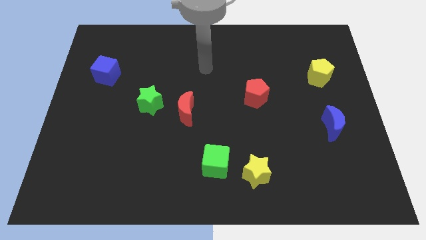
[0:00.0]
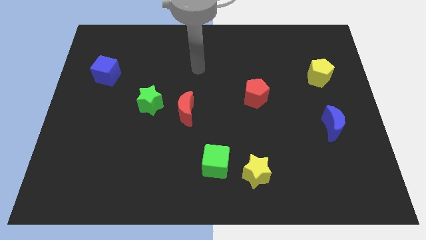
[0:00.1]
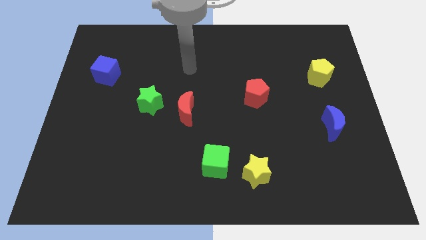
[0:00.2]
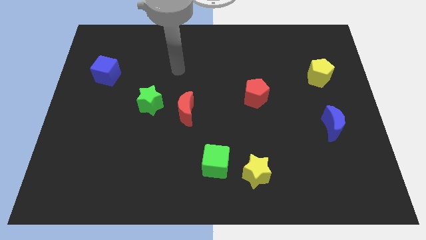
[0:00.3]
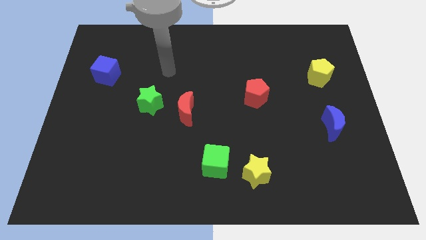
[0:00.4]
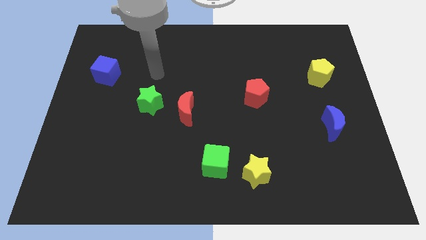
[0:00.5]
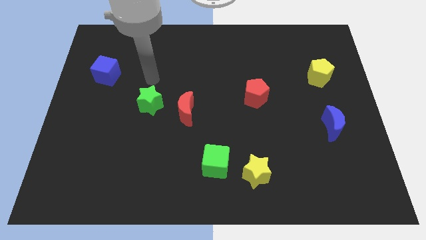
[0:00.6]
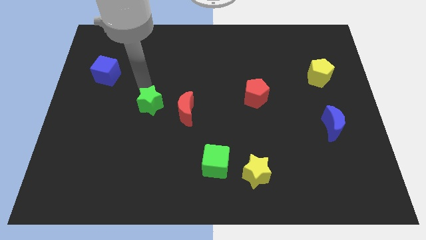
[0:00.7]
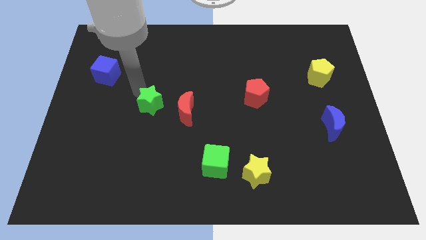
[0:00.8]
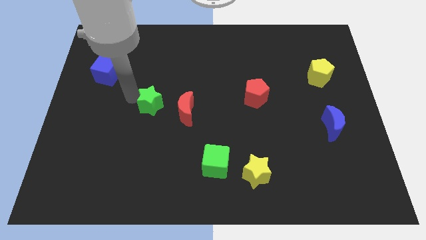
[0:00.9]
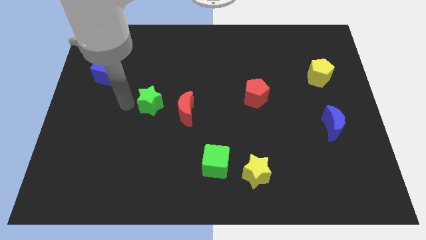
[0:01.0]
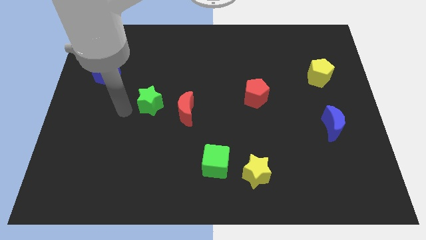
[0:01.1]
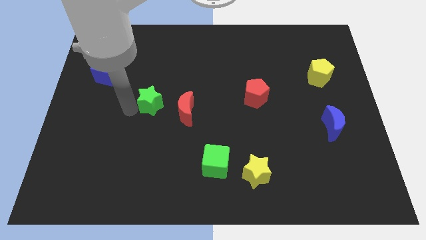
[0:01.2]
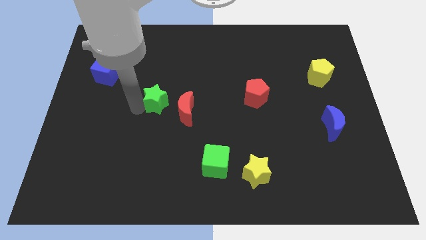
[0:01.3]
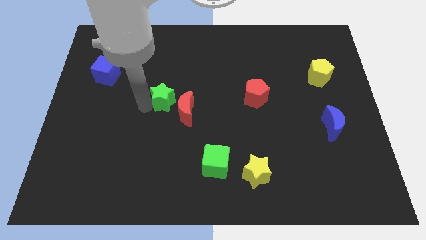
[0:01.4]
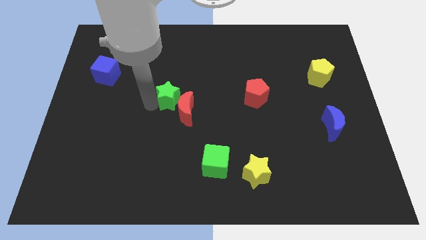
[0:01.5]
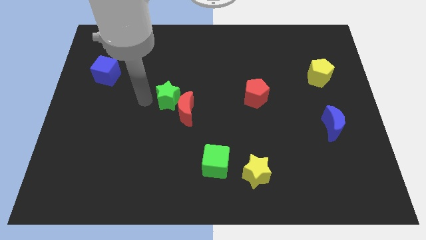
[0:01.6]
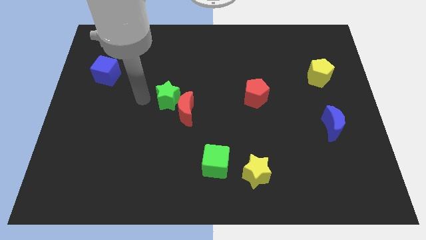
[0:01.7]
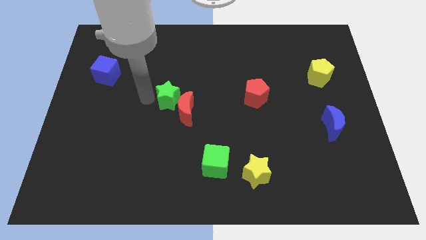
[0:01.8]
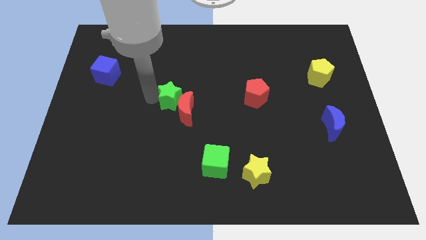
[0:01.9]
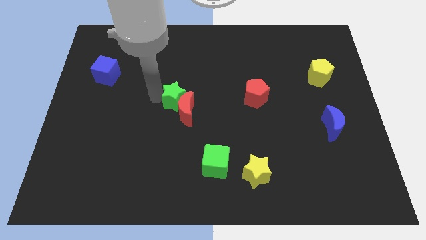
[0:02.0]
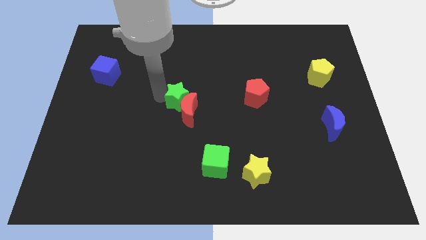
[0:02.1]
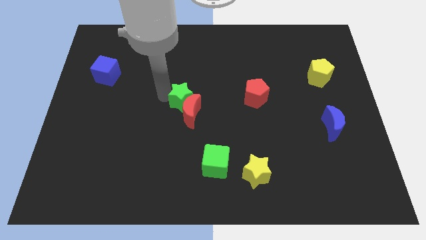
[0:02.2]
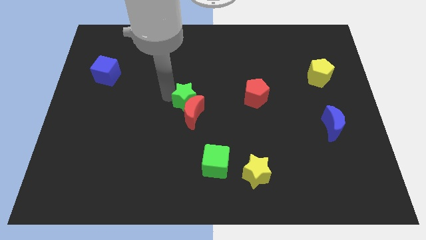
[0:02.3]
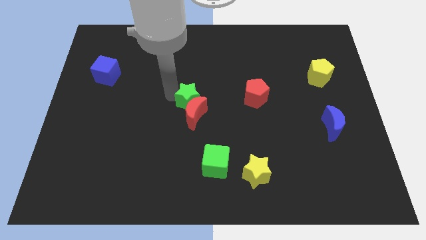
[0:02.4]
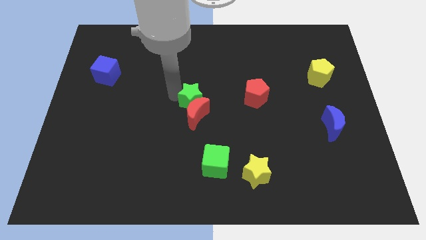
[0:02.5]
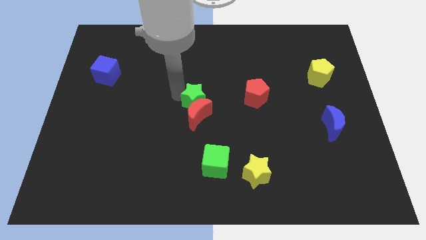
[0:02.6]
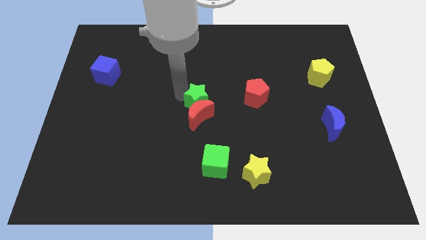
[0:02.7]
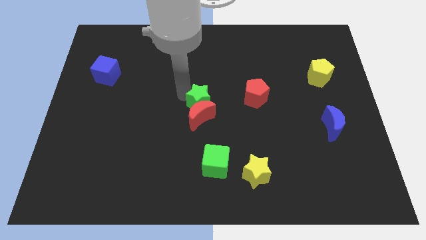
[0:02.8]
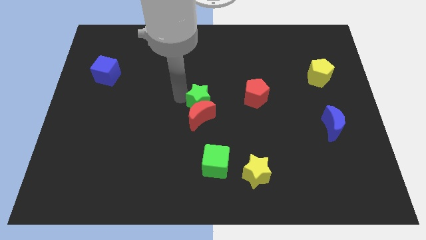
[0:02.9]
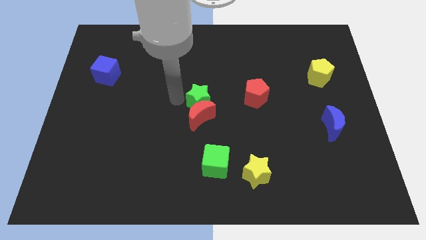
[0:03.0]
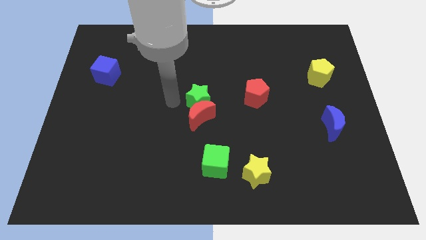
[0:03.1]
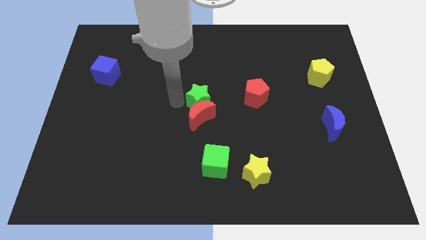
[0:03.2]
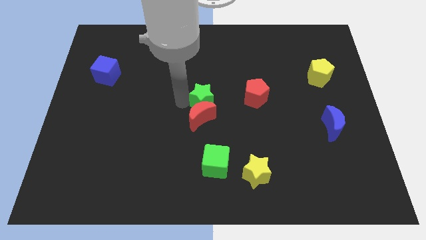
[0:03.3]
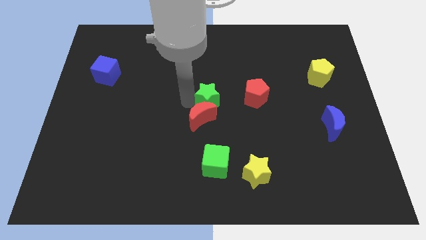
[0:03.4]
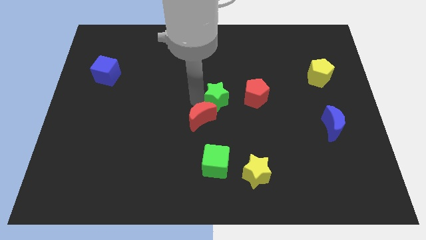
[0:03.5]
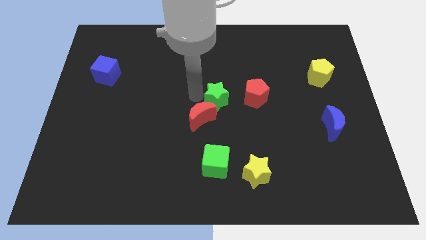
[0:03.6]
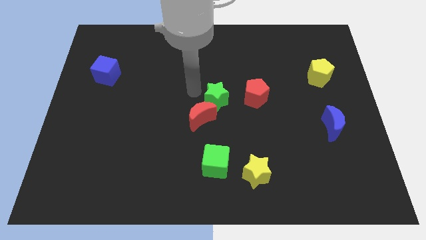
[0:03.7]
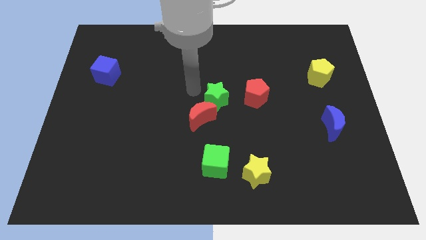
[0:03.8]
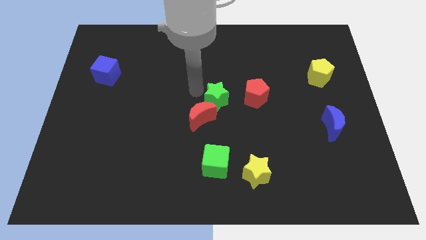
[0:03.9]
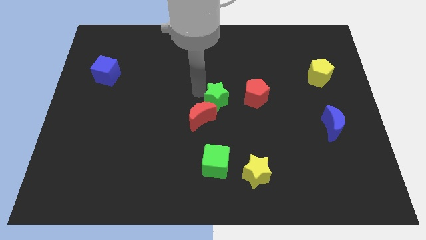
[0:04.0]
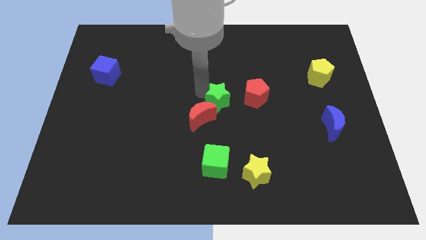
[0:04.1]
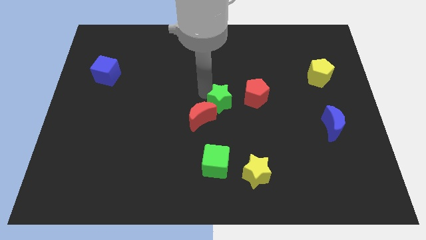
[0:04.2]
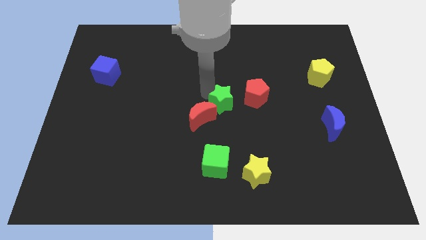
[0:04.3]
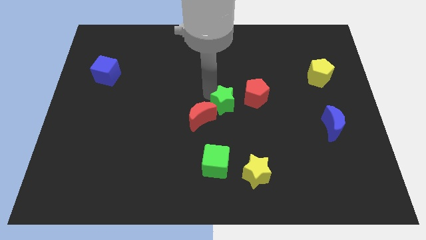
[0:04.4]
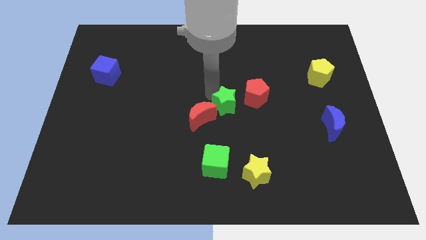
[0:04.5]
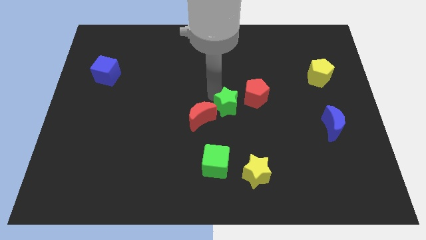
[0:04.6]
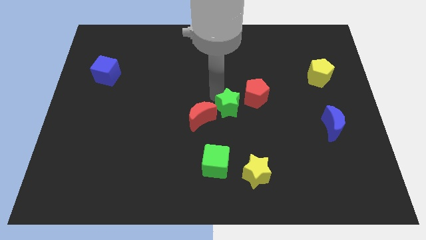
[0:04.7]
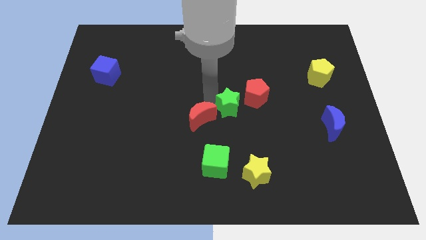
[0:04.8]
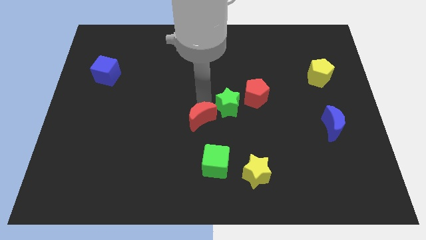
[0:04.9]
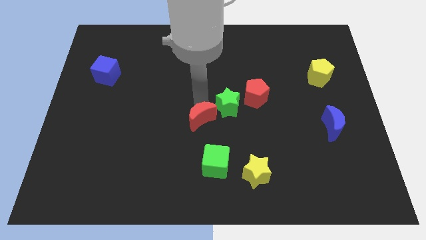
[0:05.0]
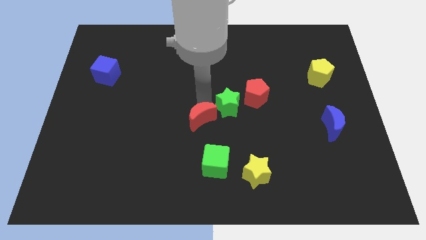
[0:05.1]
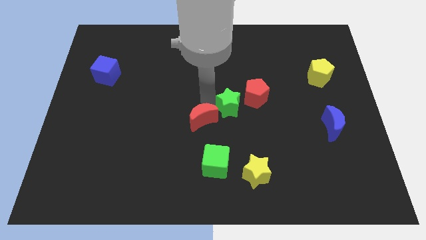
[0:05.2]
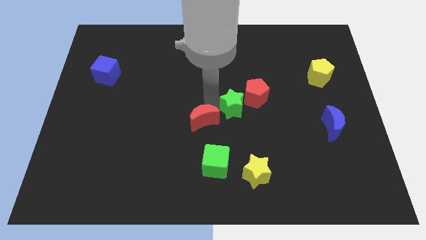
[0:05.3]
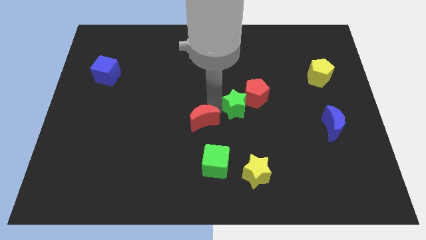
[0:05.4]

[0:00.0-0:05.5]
push the green star right

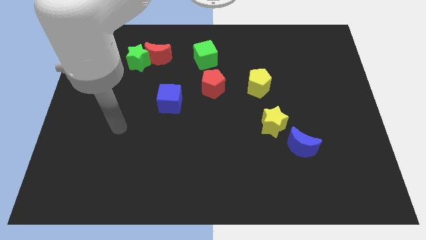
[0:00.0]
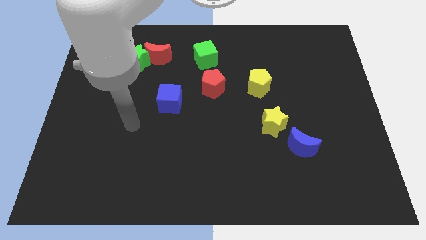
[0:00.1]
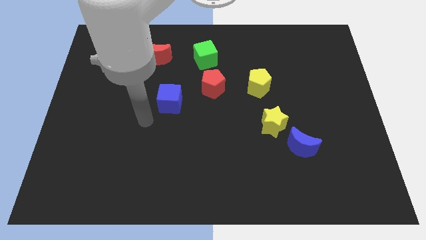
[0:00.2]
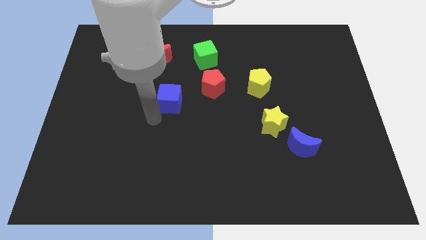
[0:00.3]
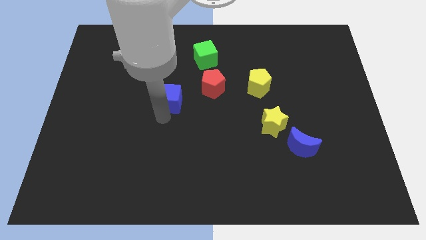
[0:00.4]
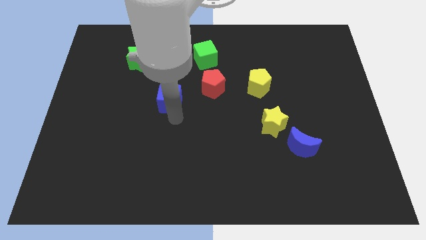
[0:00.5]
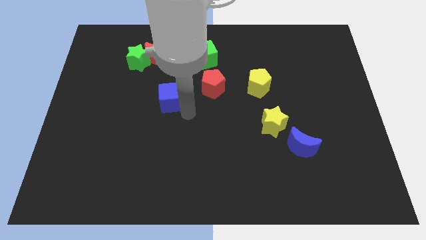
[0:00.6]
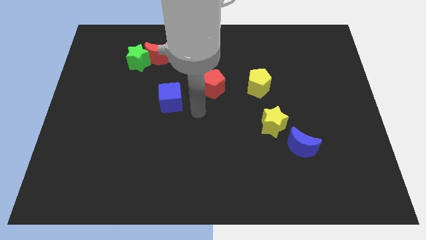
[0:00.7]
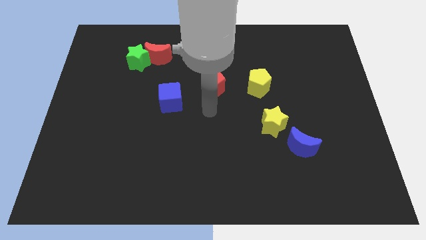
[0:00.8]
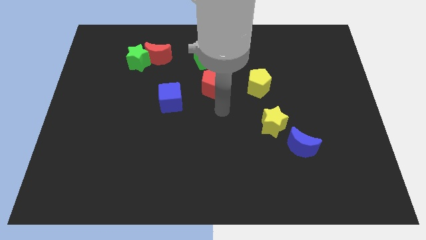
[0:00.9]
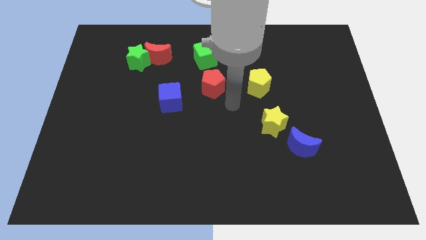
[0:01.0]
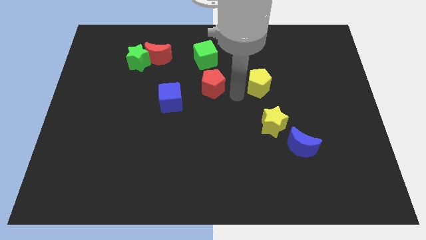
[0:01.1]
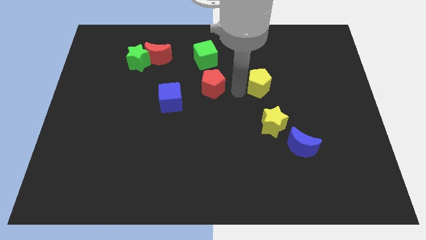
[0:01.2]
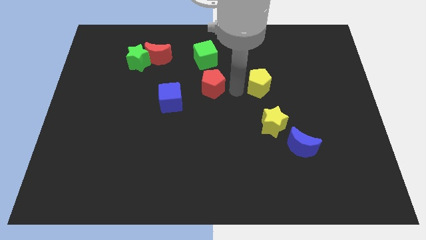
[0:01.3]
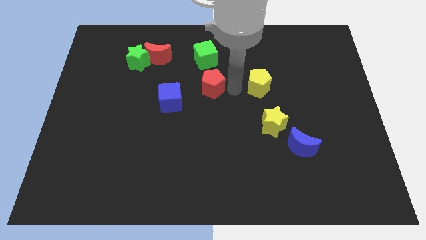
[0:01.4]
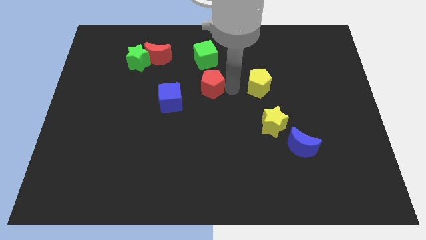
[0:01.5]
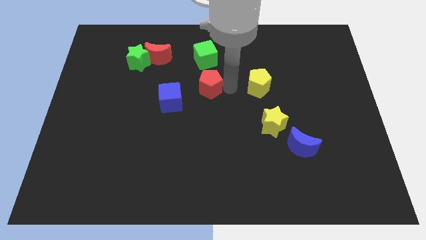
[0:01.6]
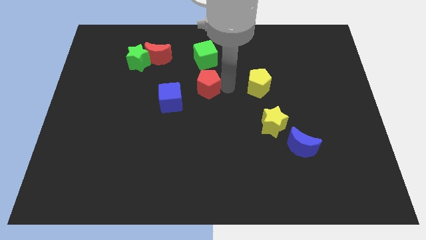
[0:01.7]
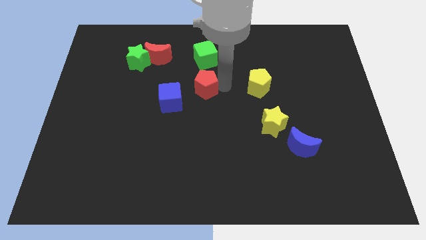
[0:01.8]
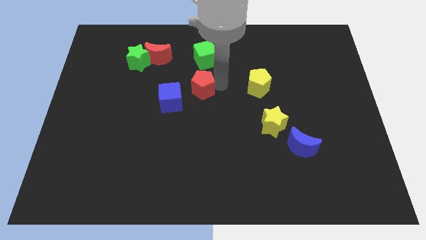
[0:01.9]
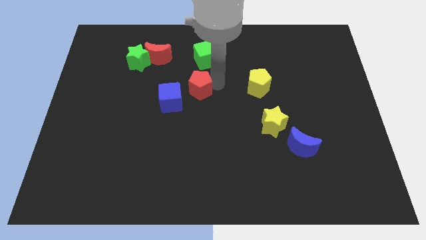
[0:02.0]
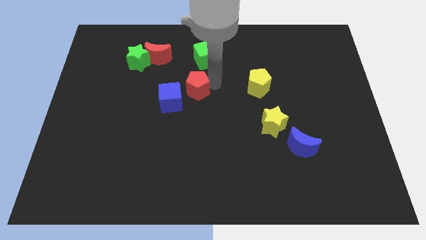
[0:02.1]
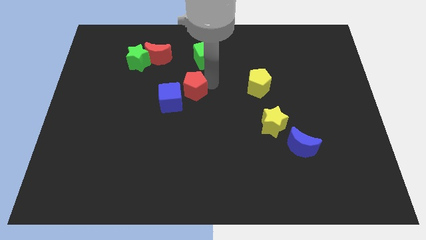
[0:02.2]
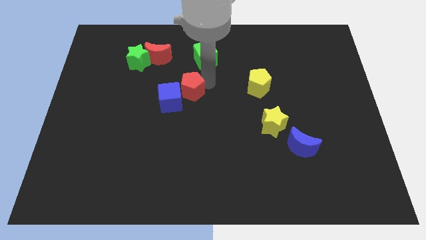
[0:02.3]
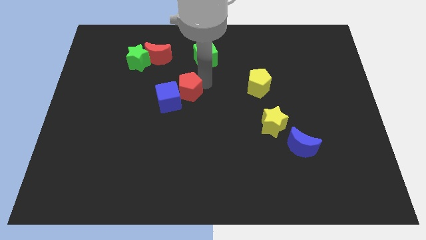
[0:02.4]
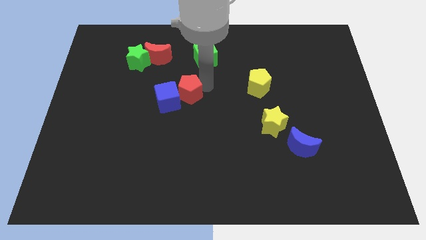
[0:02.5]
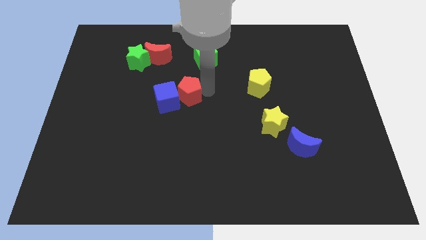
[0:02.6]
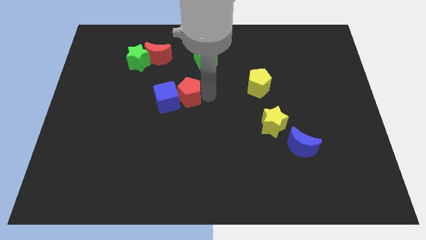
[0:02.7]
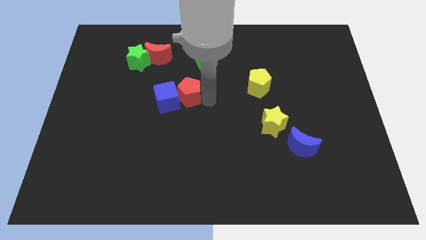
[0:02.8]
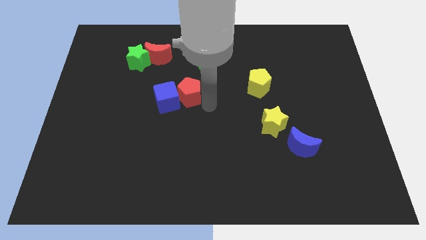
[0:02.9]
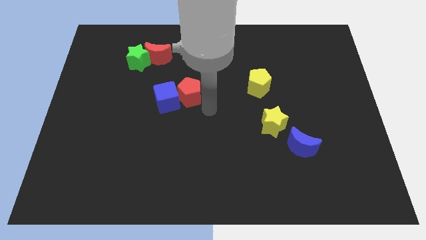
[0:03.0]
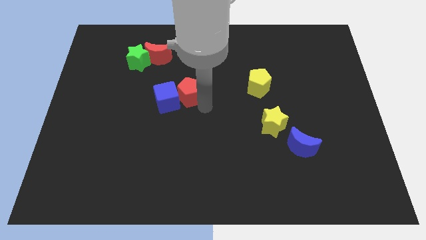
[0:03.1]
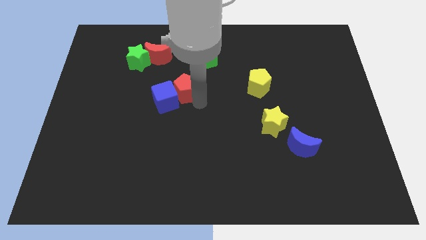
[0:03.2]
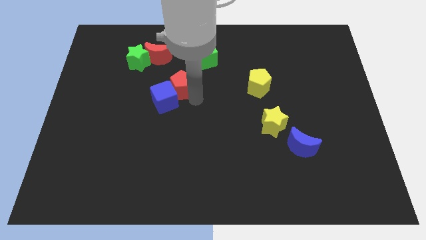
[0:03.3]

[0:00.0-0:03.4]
slide the red pentagon a bit to the left
